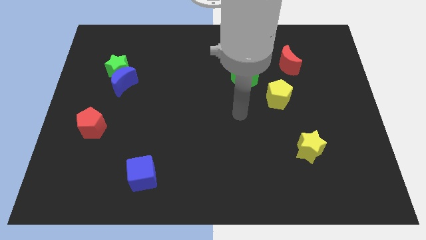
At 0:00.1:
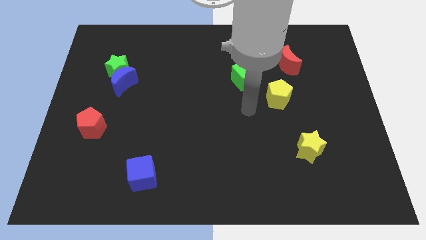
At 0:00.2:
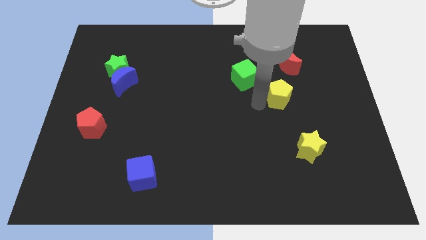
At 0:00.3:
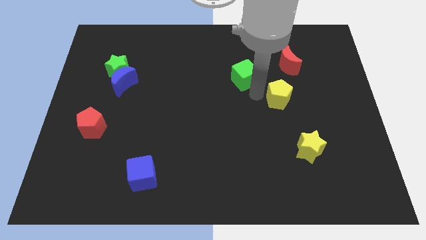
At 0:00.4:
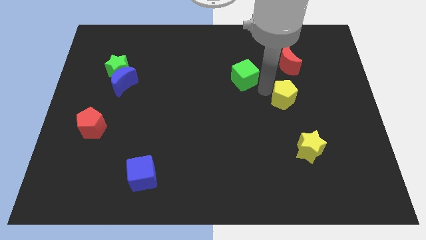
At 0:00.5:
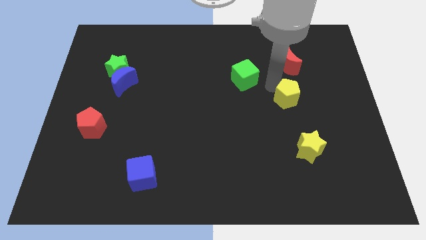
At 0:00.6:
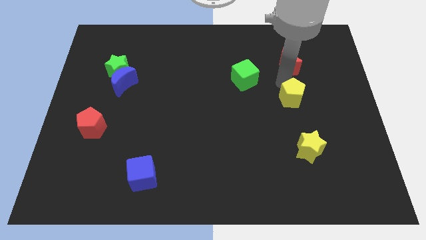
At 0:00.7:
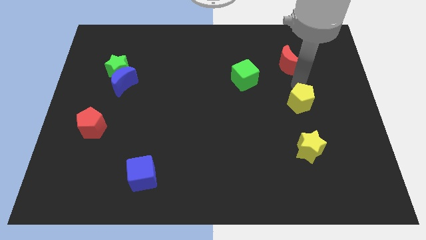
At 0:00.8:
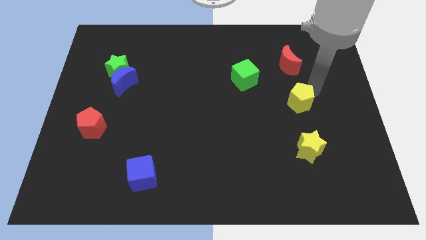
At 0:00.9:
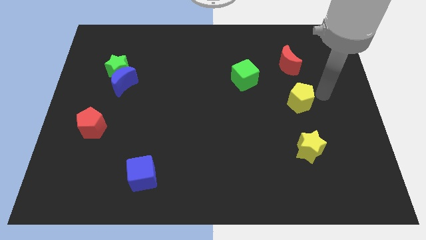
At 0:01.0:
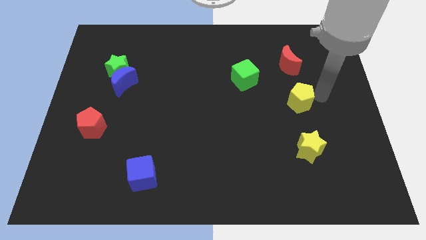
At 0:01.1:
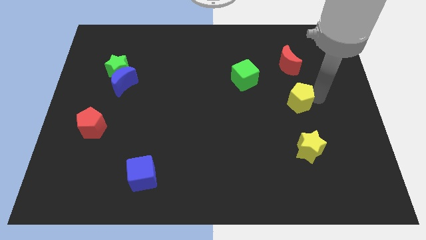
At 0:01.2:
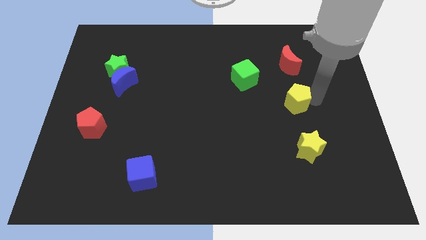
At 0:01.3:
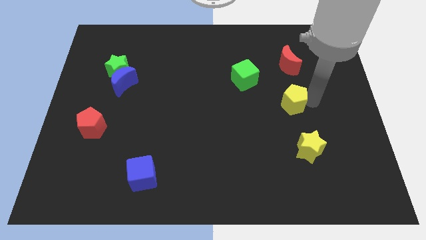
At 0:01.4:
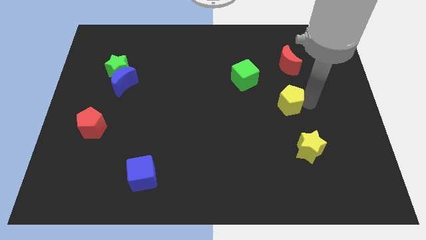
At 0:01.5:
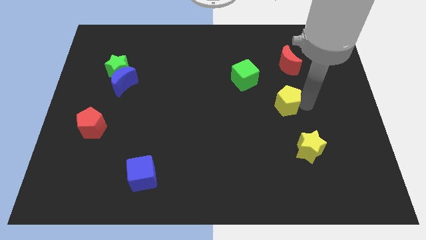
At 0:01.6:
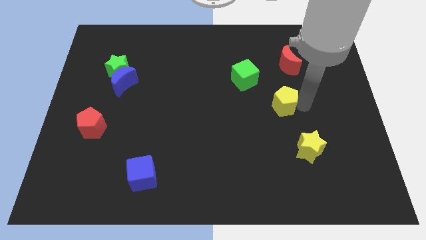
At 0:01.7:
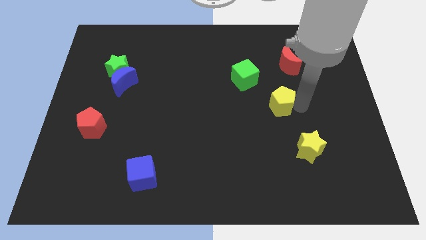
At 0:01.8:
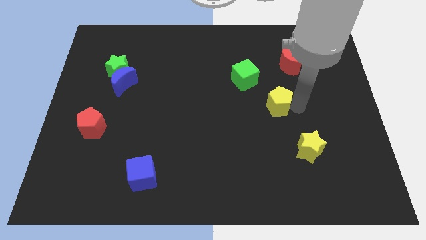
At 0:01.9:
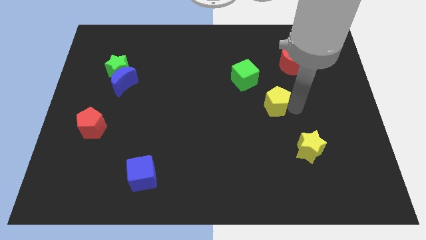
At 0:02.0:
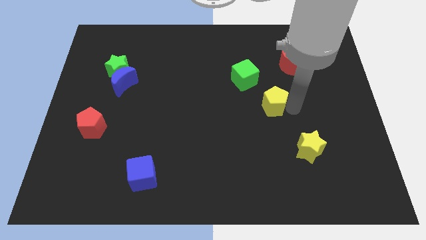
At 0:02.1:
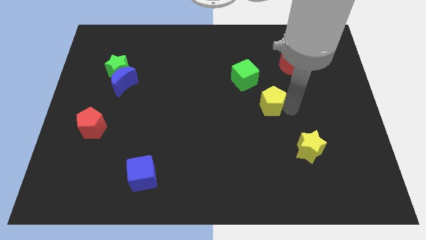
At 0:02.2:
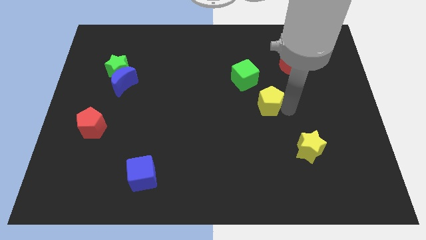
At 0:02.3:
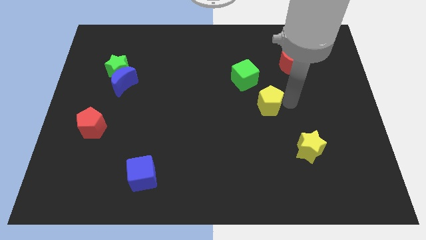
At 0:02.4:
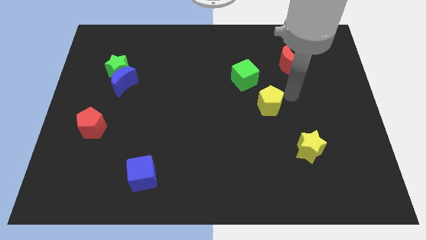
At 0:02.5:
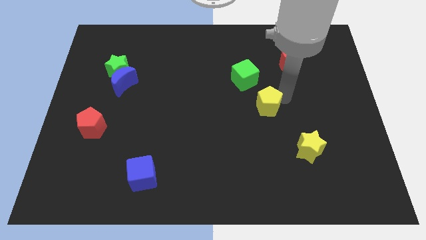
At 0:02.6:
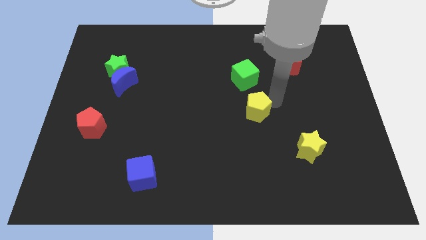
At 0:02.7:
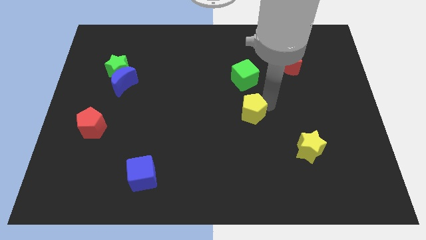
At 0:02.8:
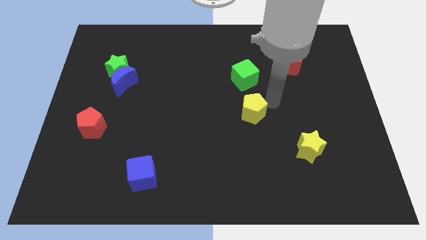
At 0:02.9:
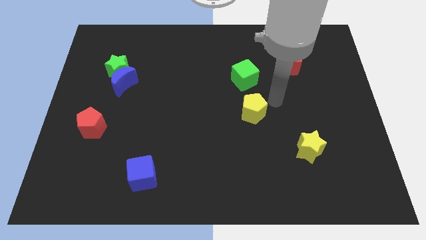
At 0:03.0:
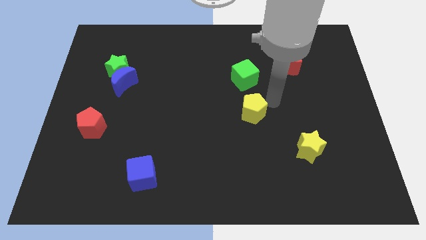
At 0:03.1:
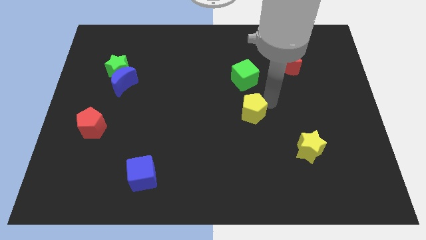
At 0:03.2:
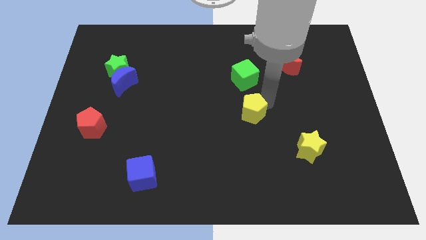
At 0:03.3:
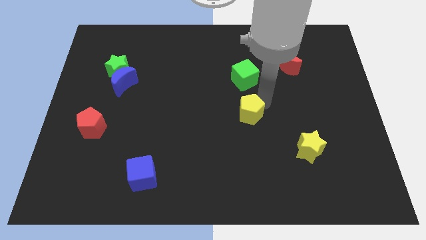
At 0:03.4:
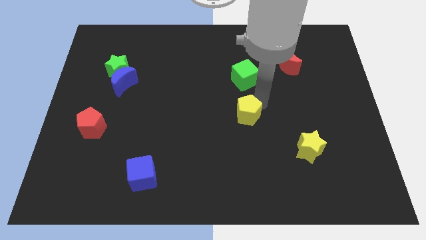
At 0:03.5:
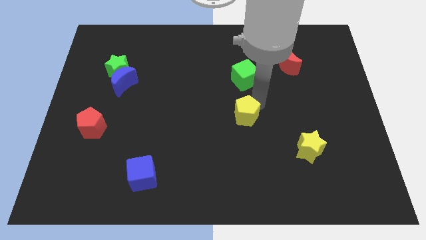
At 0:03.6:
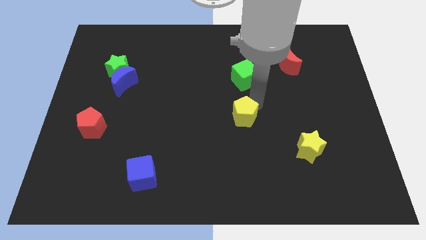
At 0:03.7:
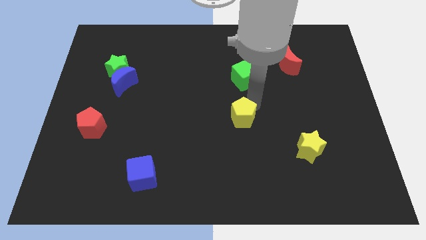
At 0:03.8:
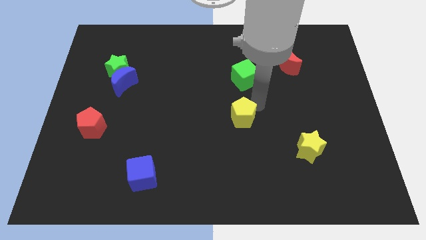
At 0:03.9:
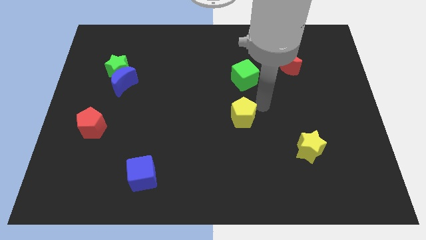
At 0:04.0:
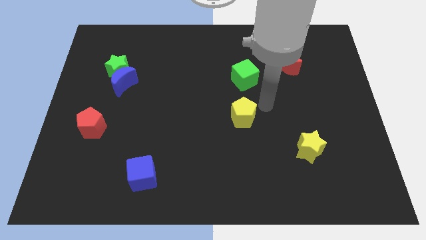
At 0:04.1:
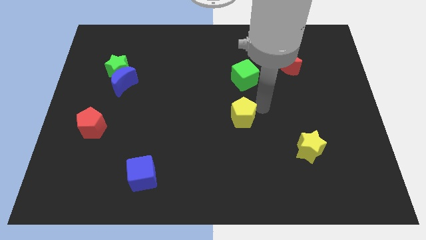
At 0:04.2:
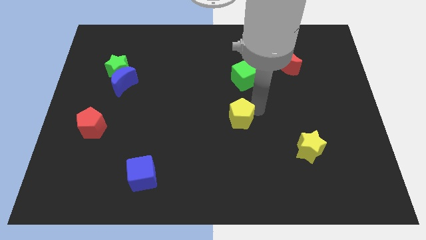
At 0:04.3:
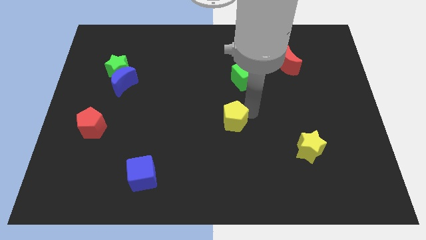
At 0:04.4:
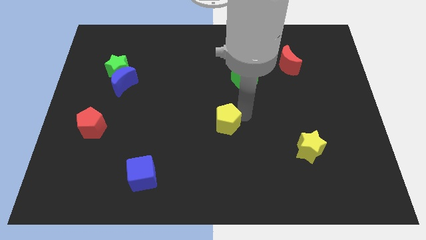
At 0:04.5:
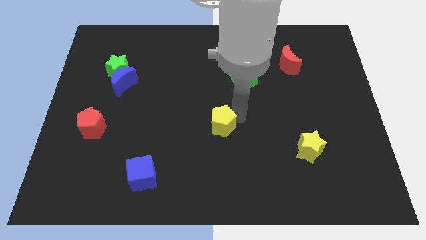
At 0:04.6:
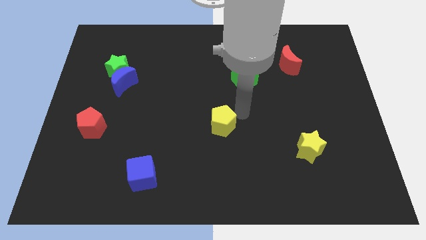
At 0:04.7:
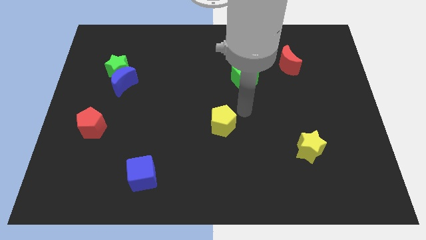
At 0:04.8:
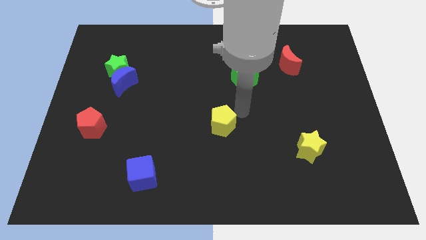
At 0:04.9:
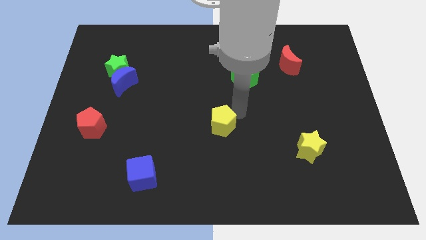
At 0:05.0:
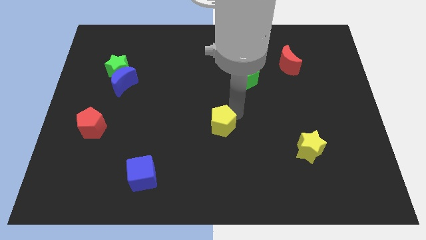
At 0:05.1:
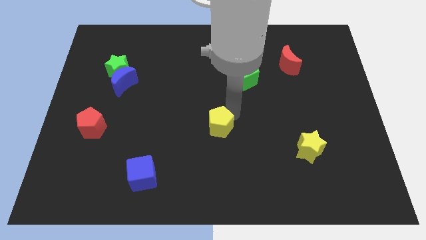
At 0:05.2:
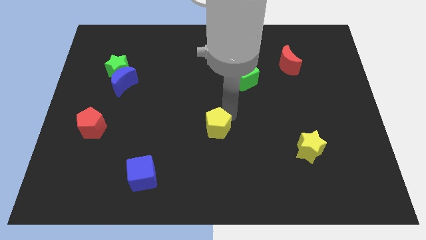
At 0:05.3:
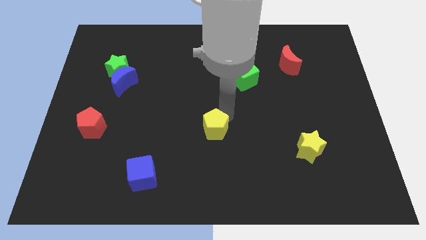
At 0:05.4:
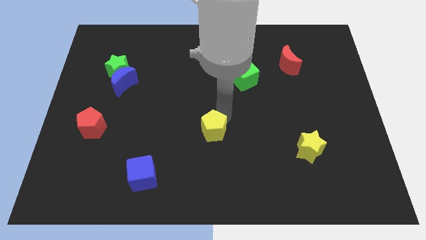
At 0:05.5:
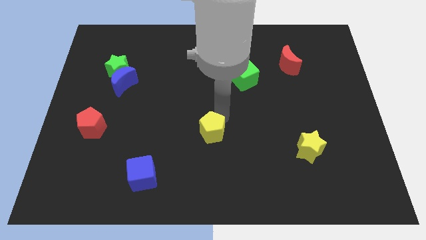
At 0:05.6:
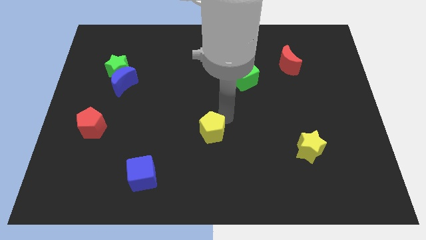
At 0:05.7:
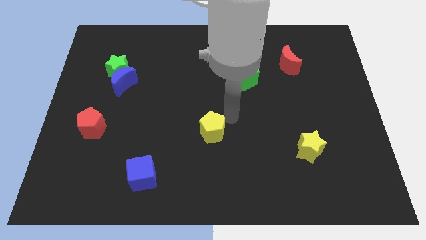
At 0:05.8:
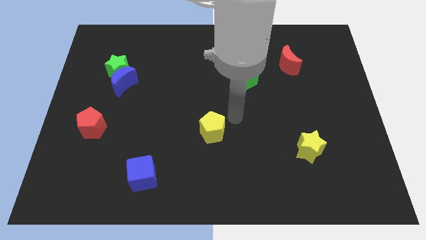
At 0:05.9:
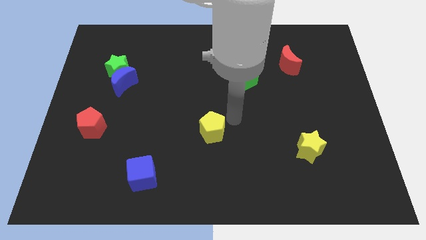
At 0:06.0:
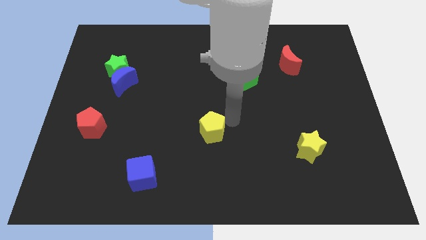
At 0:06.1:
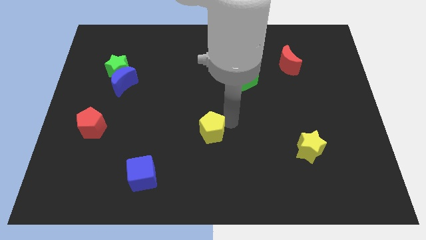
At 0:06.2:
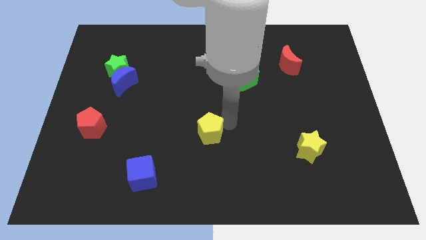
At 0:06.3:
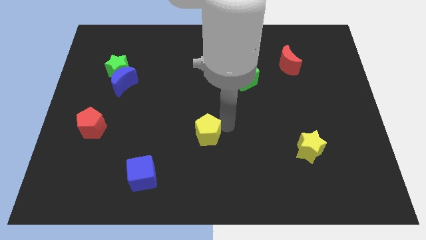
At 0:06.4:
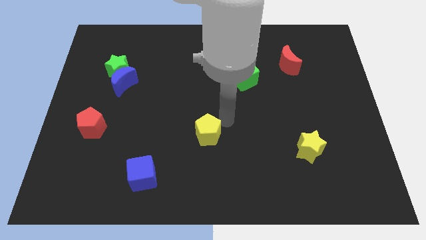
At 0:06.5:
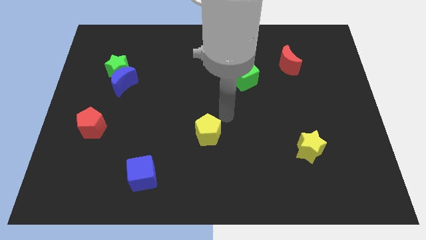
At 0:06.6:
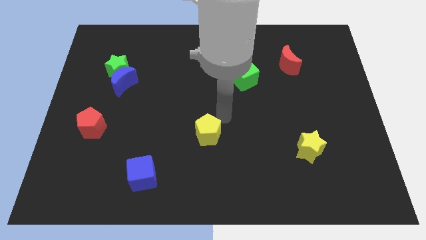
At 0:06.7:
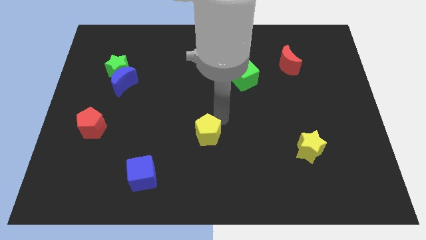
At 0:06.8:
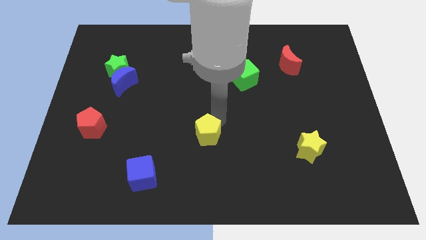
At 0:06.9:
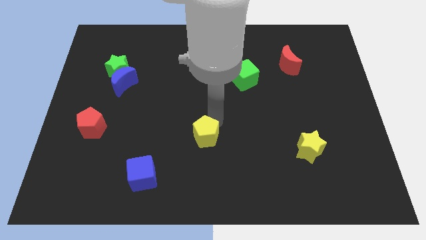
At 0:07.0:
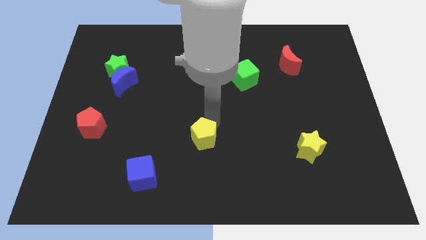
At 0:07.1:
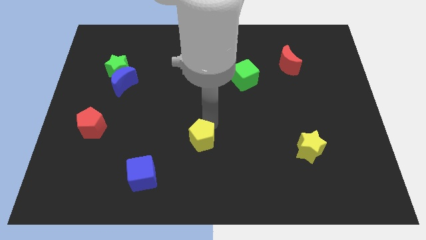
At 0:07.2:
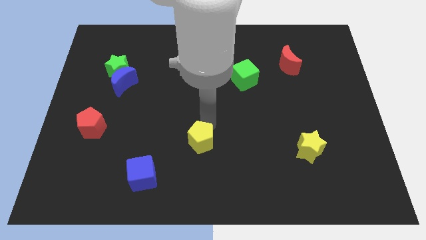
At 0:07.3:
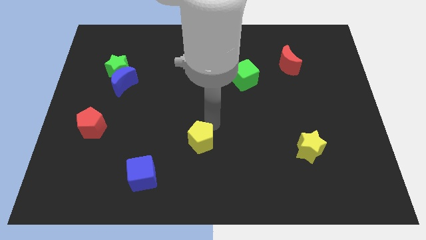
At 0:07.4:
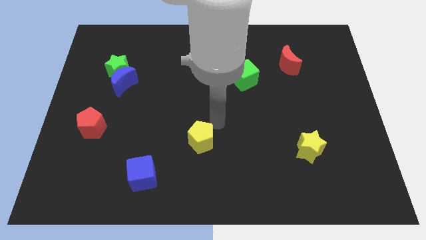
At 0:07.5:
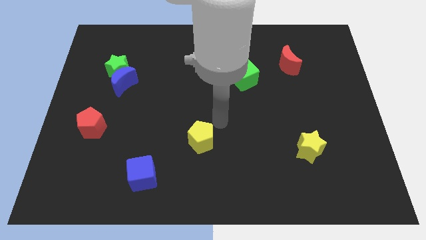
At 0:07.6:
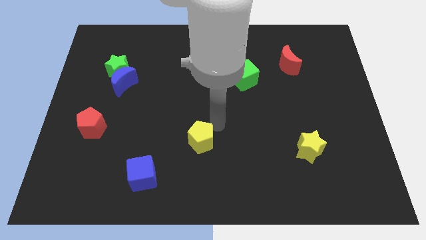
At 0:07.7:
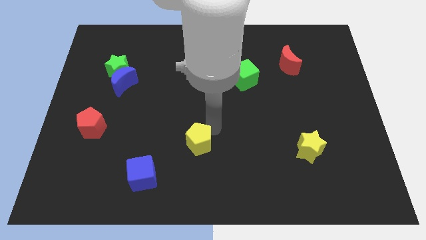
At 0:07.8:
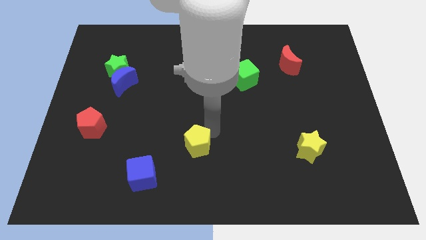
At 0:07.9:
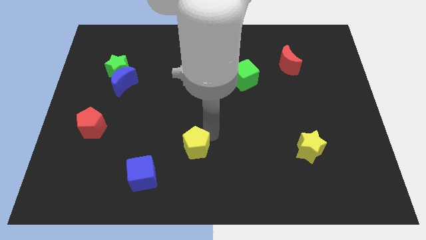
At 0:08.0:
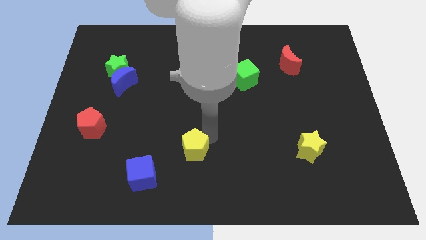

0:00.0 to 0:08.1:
put the yellow pentagon to the top right side of the blue cube
